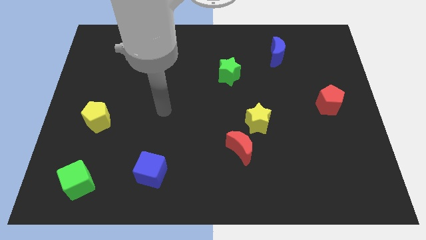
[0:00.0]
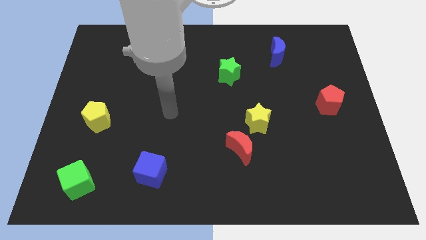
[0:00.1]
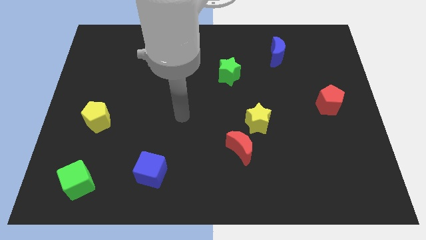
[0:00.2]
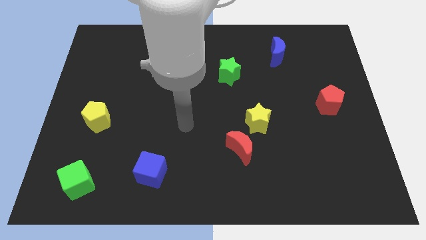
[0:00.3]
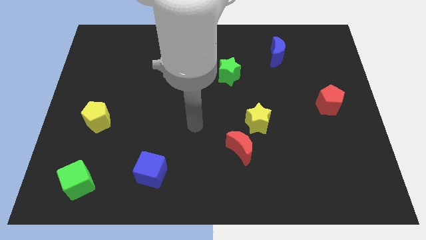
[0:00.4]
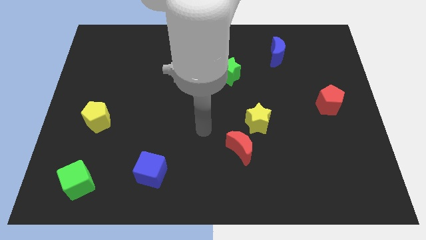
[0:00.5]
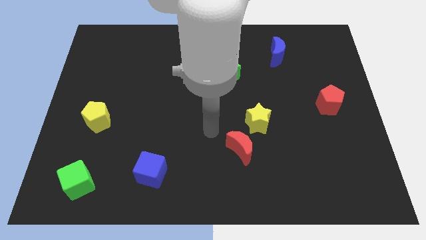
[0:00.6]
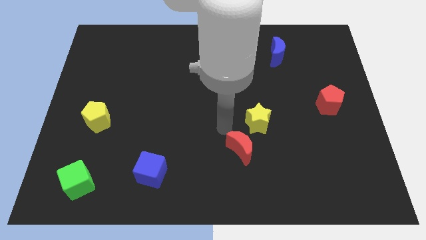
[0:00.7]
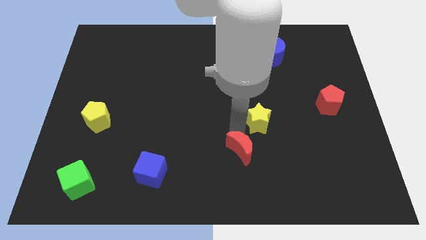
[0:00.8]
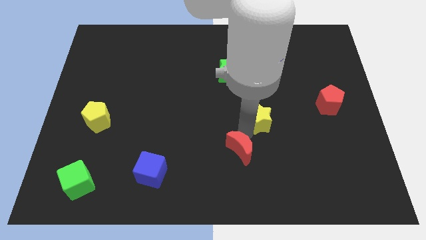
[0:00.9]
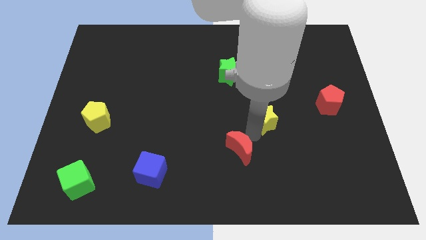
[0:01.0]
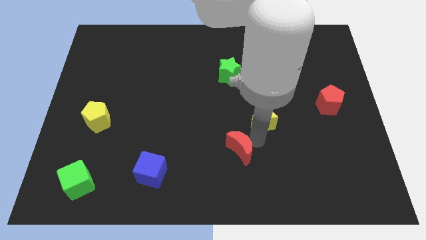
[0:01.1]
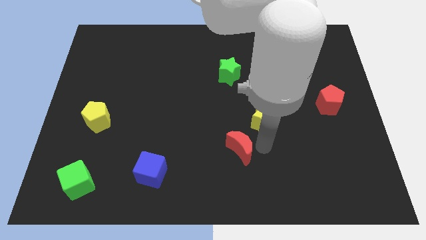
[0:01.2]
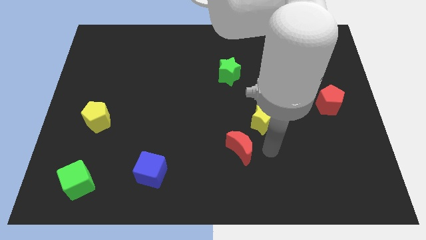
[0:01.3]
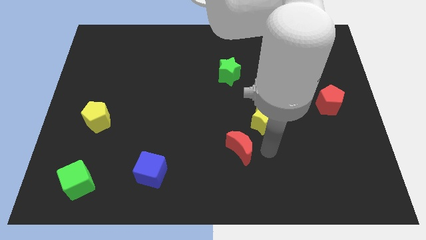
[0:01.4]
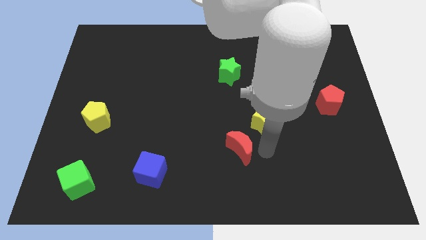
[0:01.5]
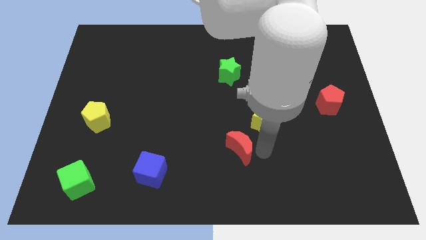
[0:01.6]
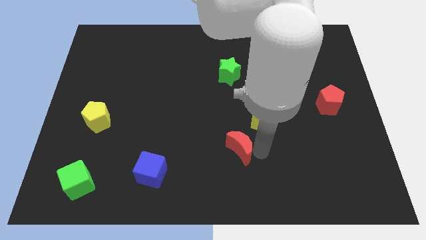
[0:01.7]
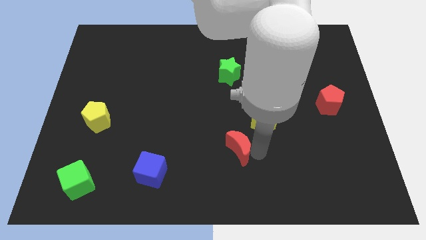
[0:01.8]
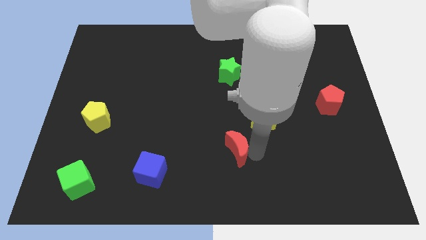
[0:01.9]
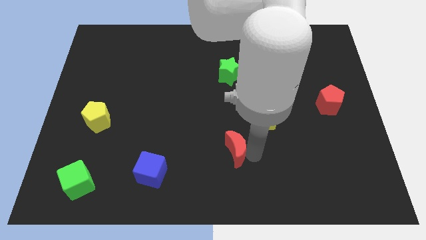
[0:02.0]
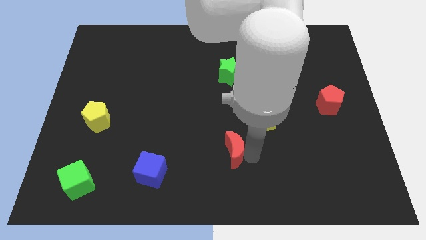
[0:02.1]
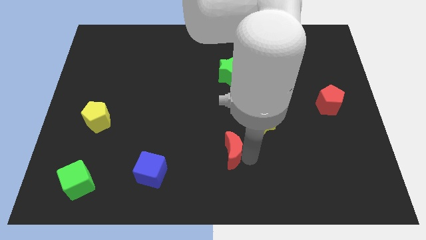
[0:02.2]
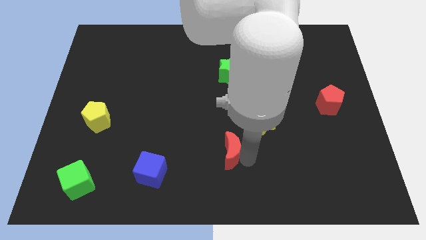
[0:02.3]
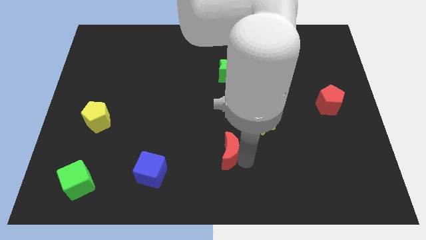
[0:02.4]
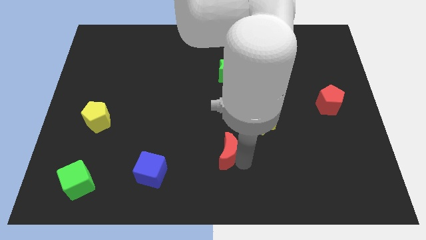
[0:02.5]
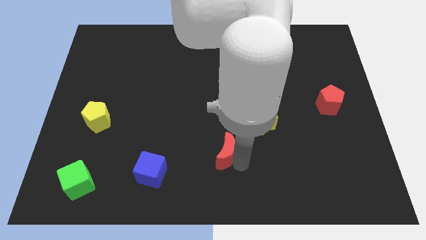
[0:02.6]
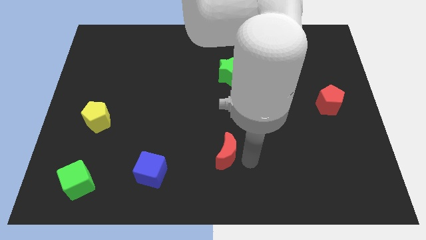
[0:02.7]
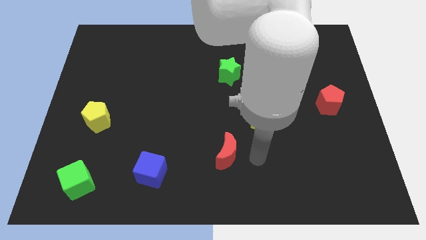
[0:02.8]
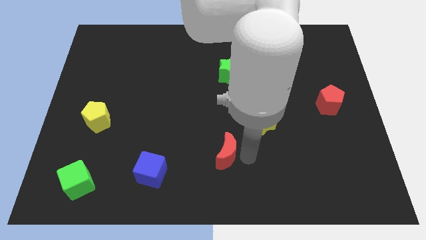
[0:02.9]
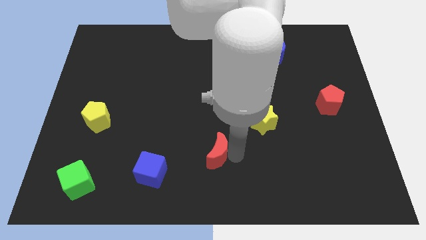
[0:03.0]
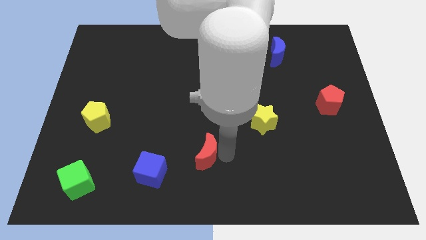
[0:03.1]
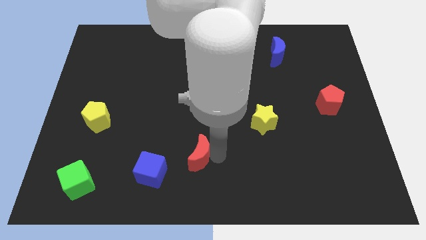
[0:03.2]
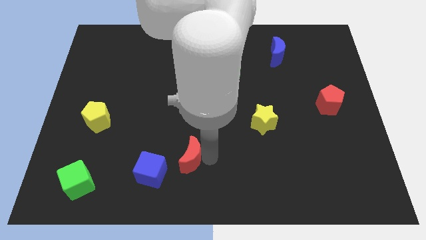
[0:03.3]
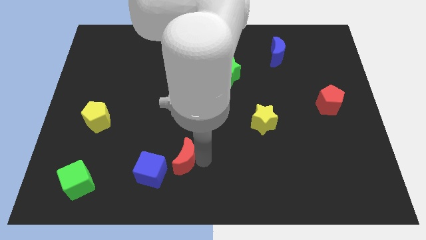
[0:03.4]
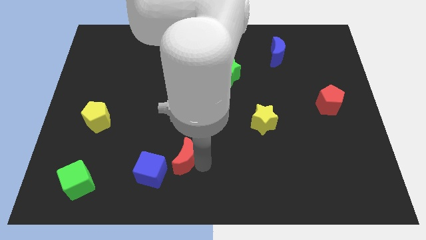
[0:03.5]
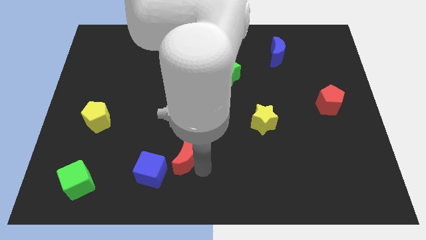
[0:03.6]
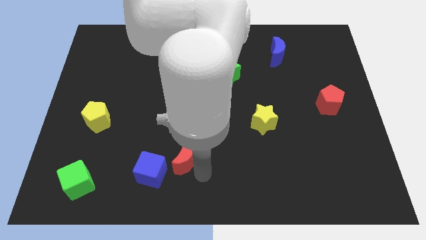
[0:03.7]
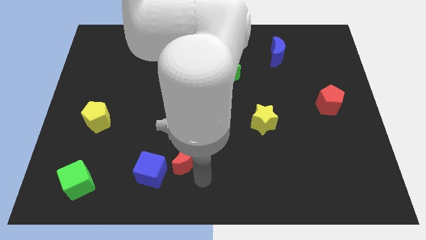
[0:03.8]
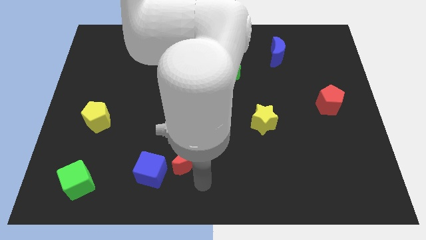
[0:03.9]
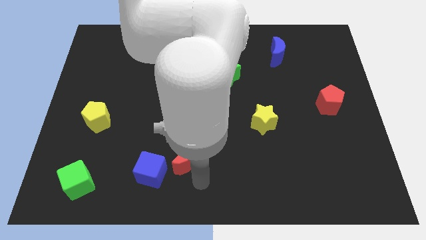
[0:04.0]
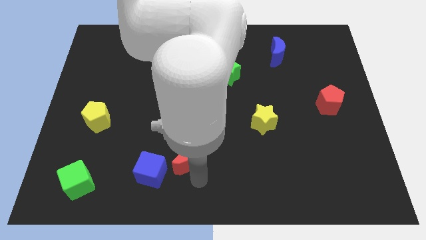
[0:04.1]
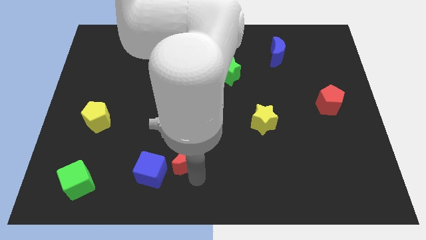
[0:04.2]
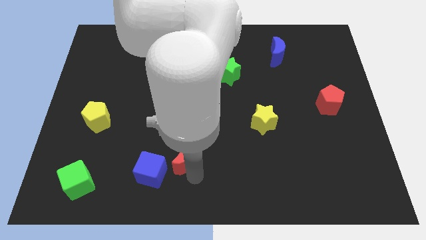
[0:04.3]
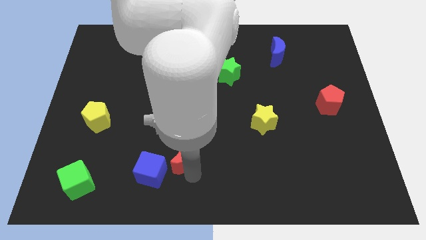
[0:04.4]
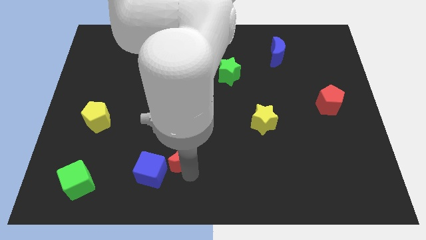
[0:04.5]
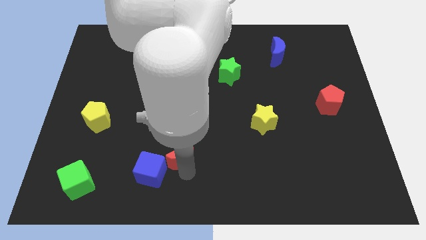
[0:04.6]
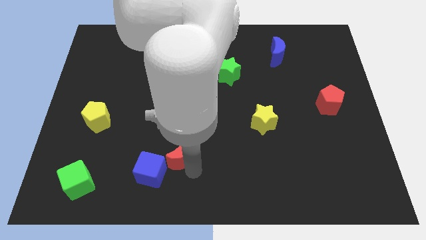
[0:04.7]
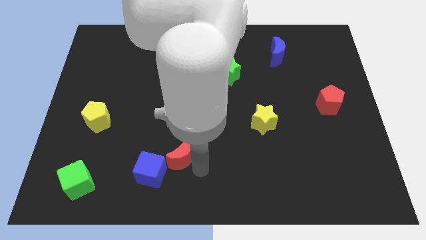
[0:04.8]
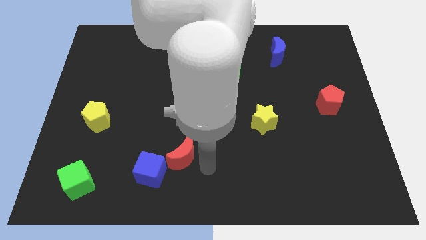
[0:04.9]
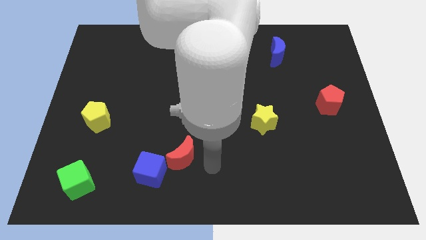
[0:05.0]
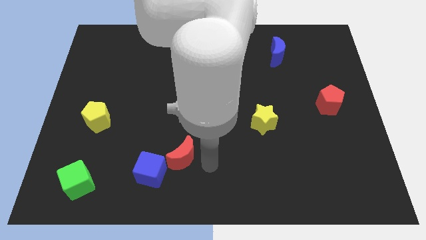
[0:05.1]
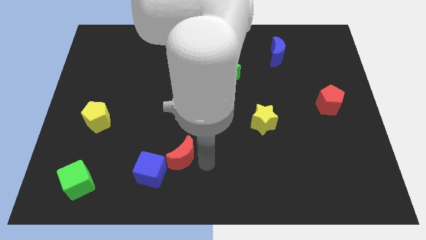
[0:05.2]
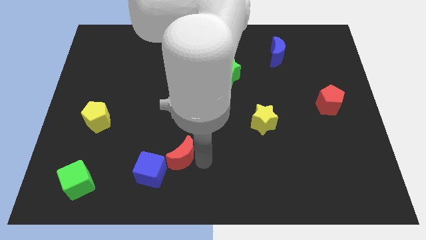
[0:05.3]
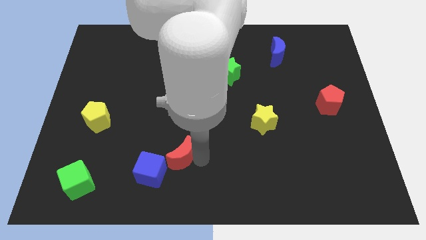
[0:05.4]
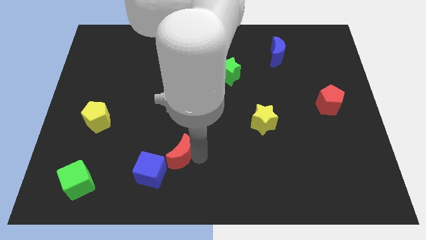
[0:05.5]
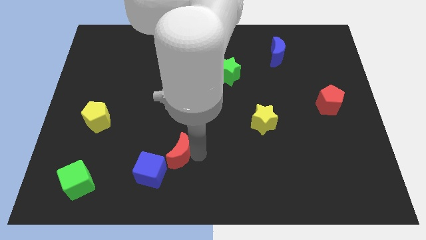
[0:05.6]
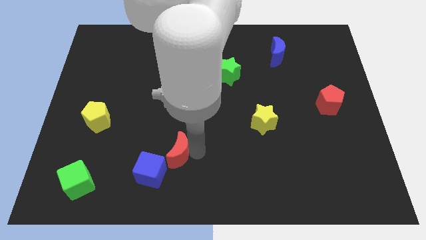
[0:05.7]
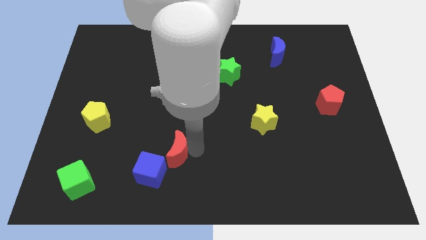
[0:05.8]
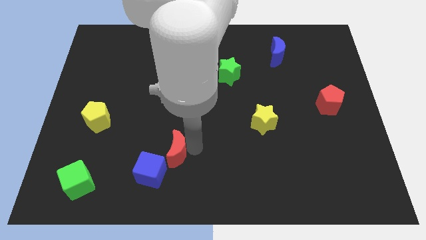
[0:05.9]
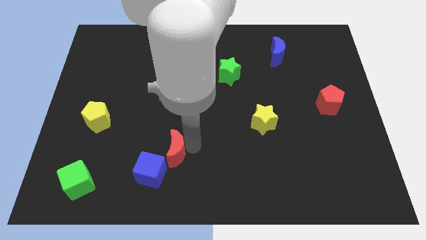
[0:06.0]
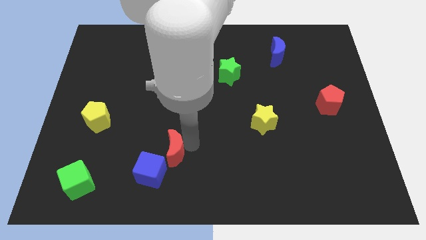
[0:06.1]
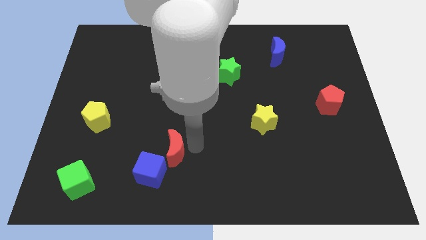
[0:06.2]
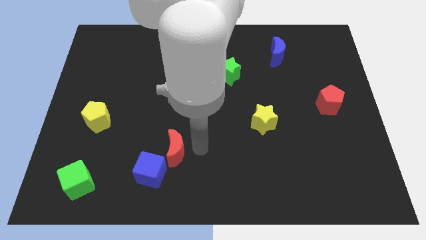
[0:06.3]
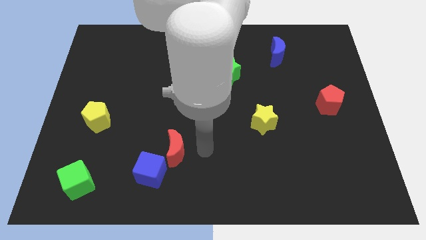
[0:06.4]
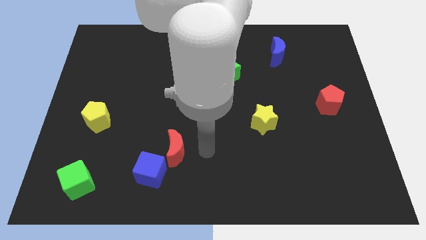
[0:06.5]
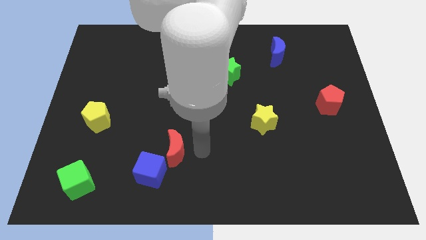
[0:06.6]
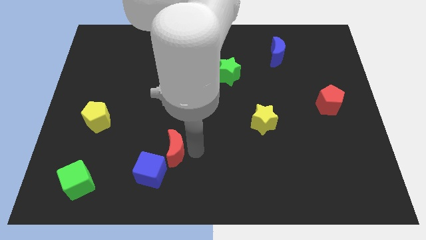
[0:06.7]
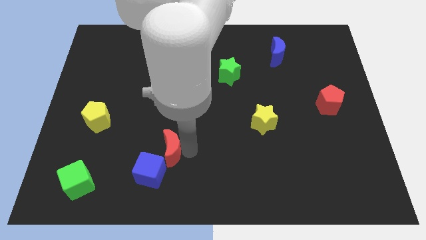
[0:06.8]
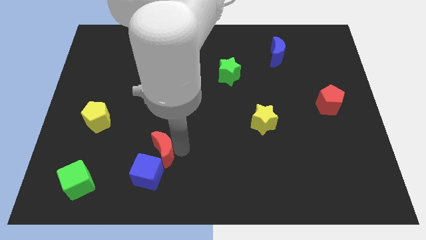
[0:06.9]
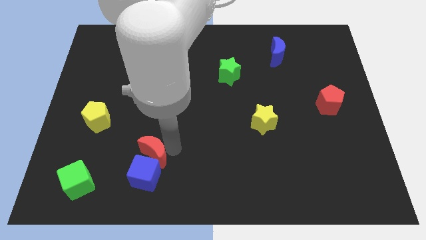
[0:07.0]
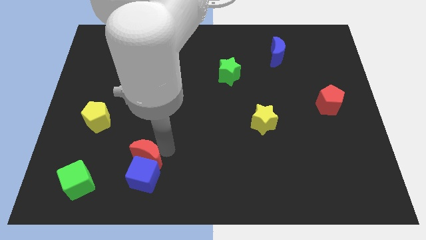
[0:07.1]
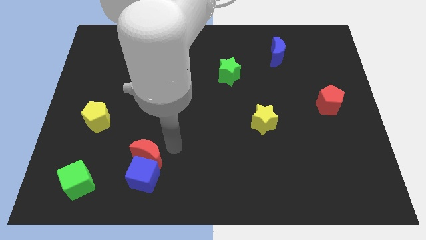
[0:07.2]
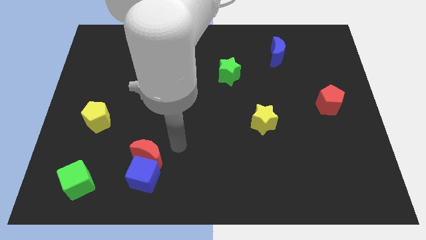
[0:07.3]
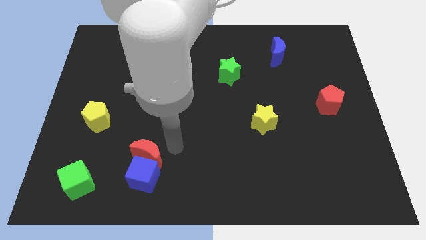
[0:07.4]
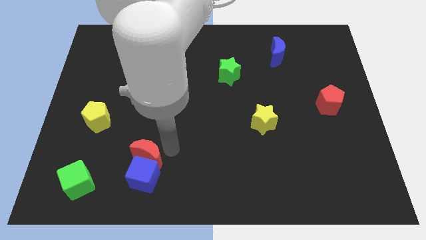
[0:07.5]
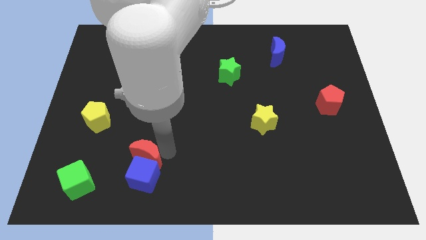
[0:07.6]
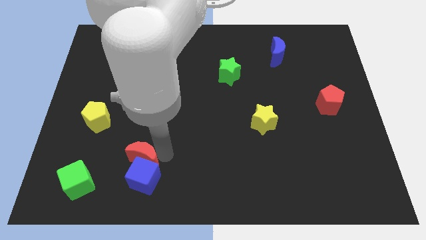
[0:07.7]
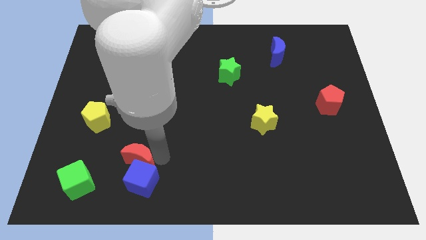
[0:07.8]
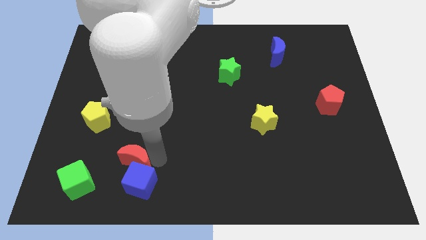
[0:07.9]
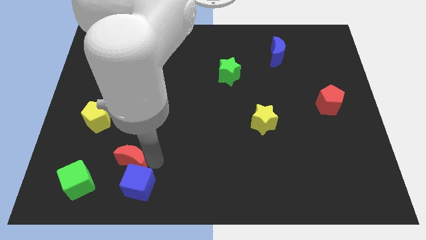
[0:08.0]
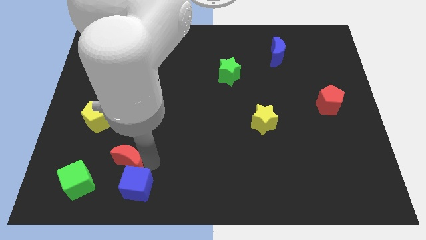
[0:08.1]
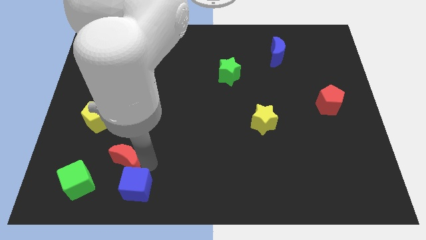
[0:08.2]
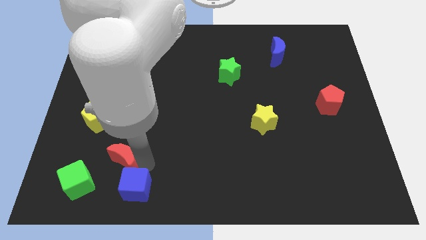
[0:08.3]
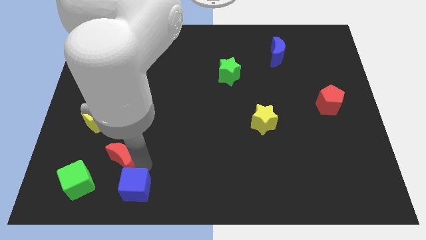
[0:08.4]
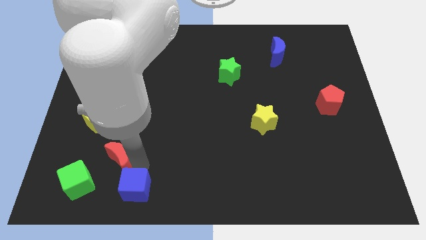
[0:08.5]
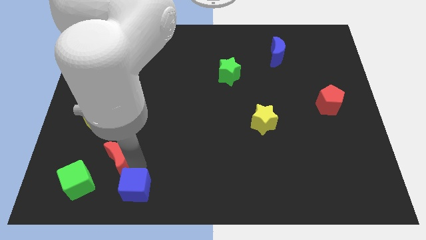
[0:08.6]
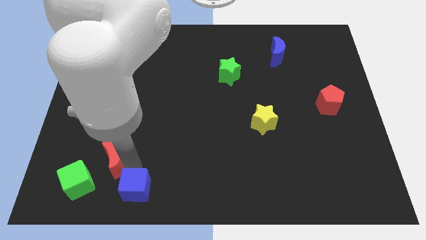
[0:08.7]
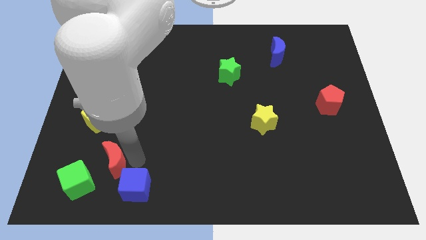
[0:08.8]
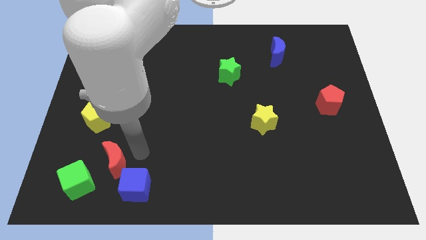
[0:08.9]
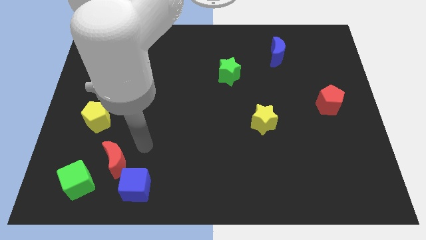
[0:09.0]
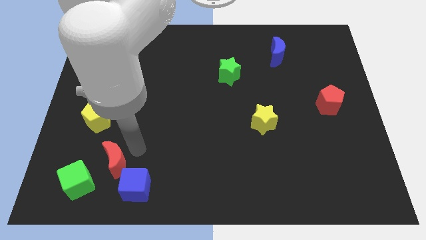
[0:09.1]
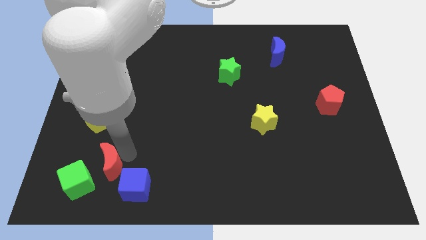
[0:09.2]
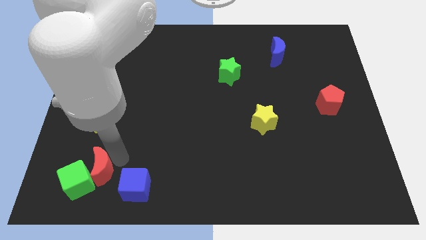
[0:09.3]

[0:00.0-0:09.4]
move the red moon close to the green cube
